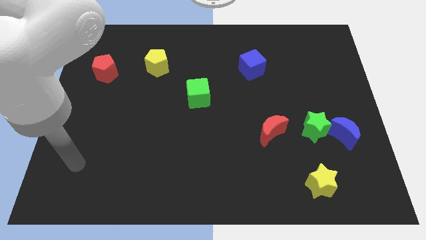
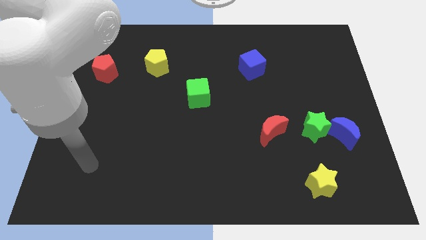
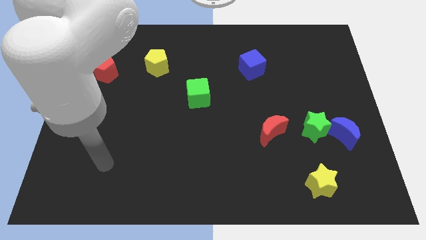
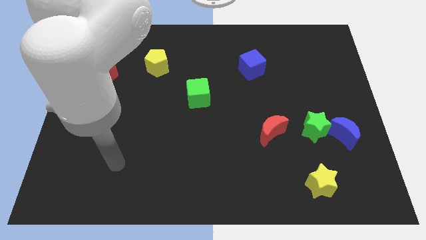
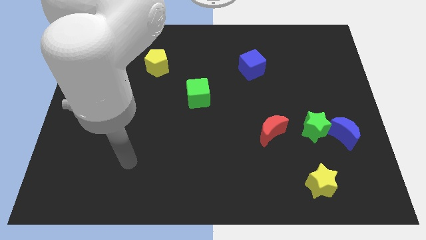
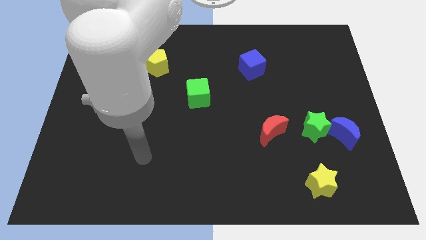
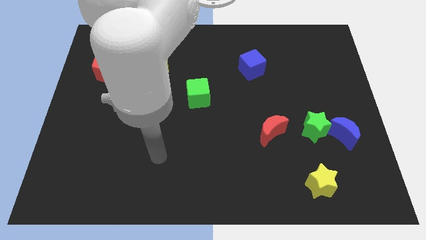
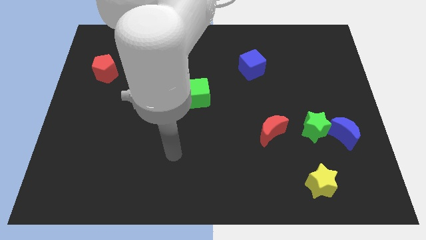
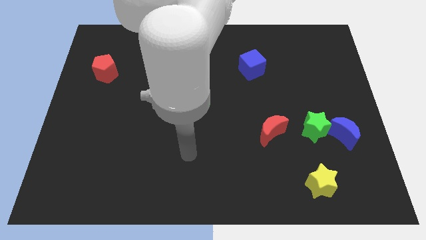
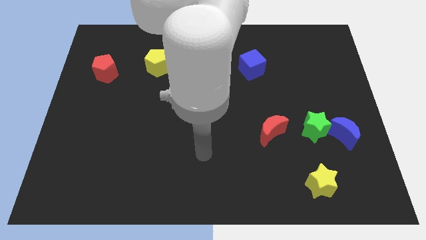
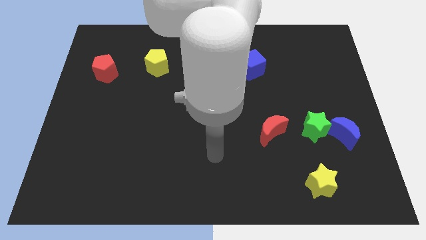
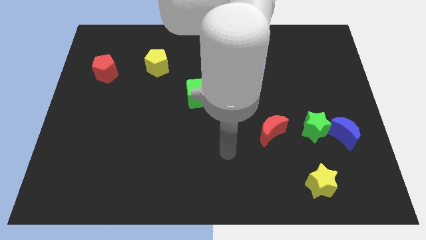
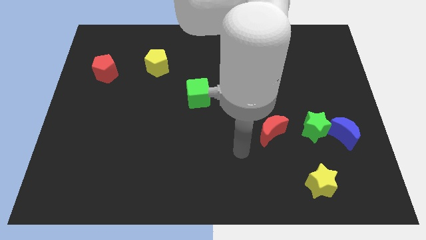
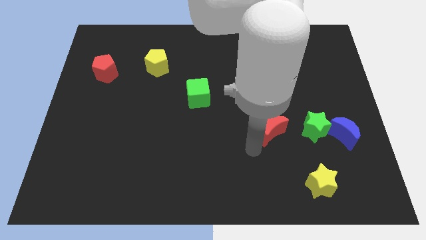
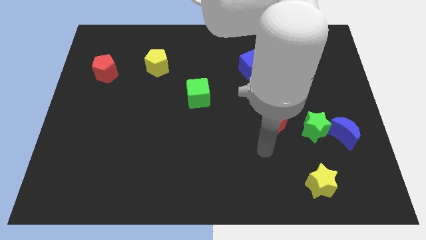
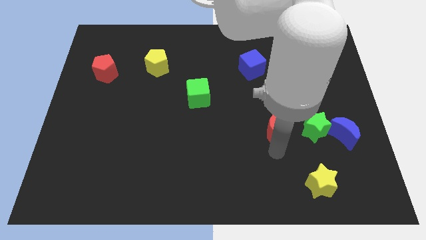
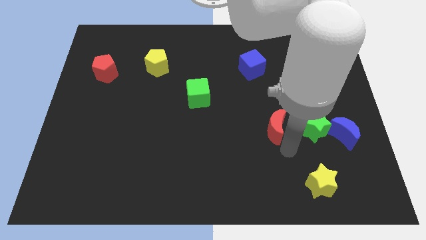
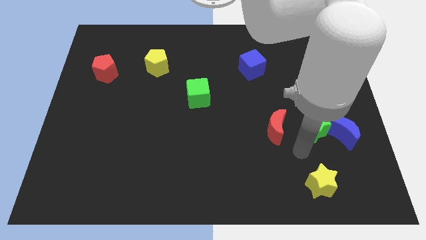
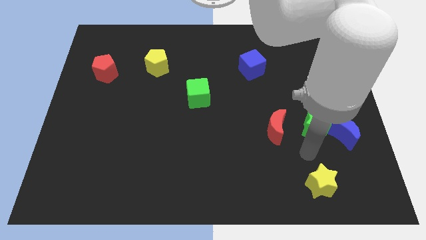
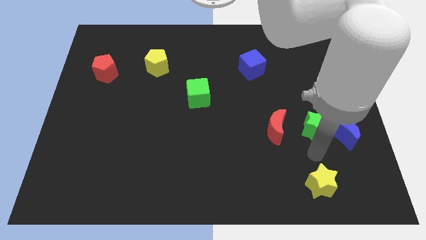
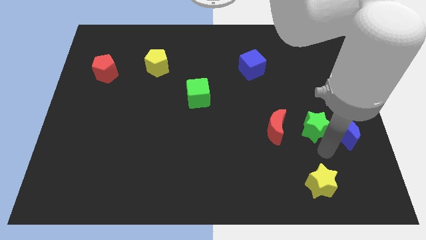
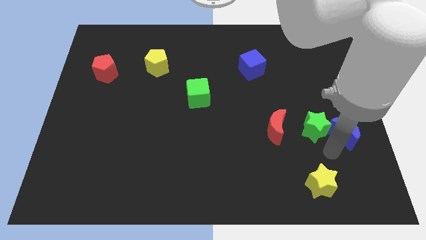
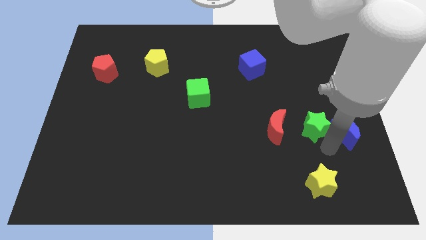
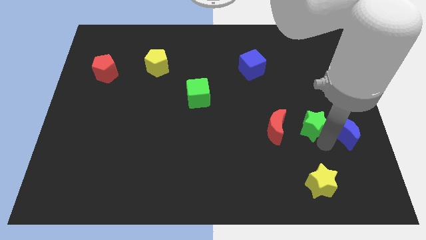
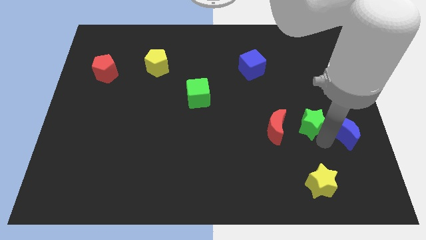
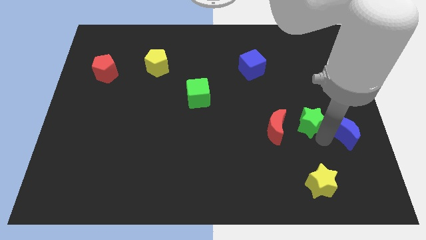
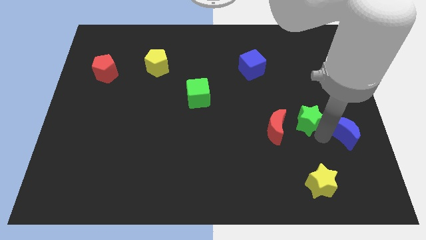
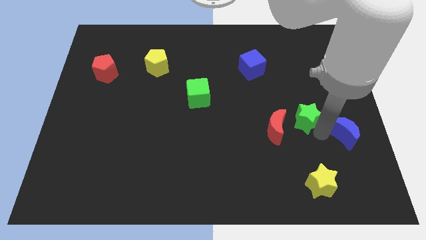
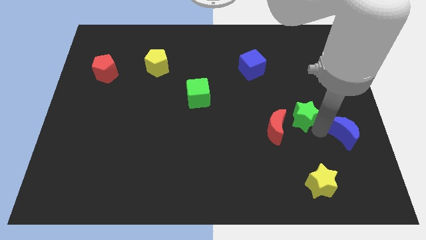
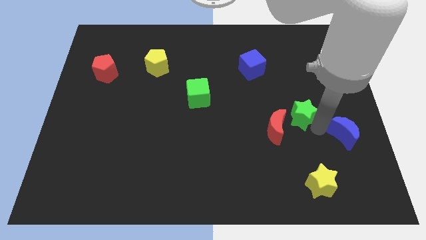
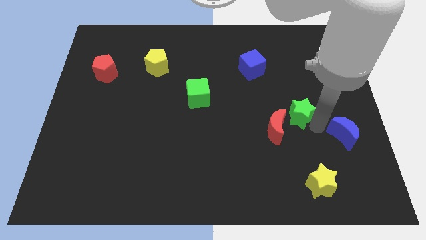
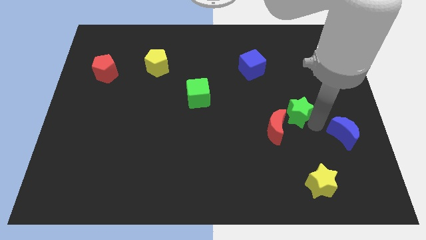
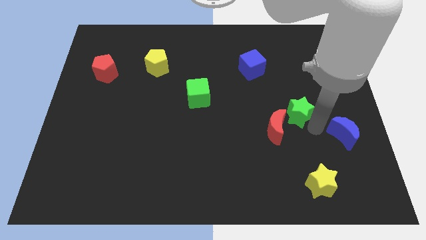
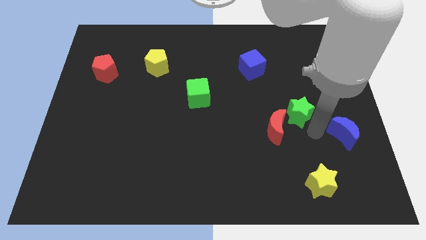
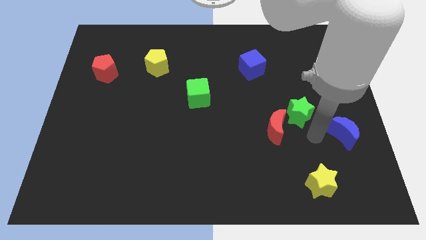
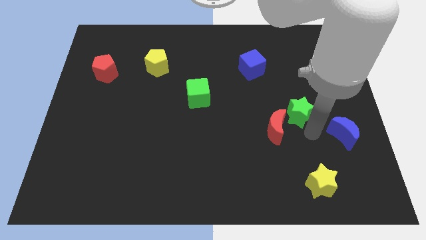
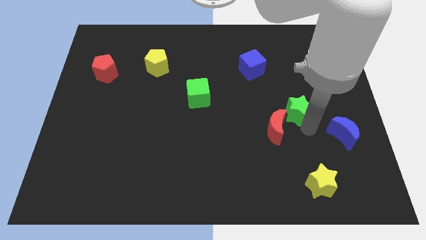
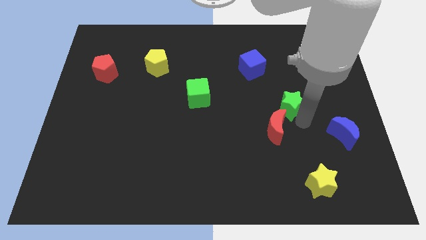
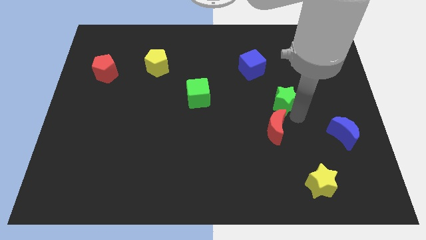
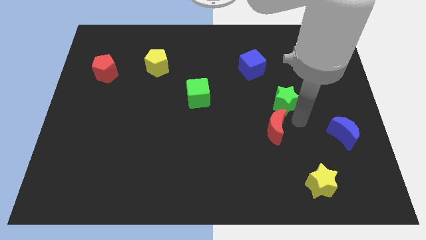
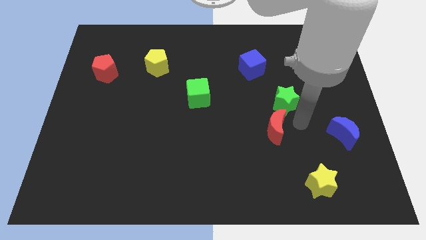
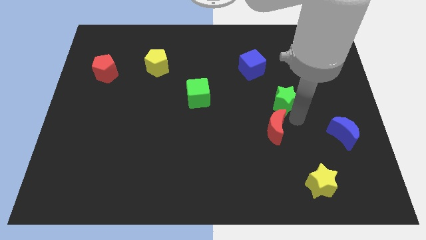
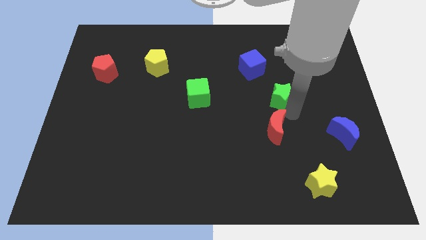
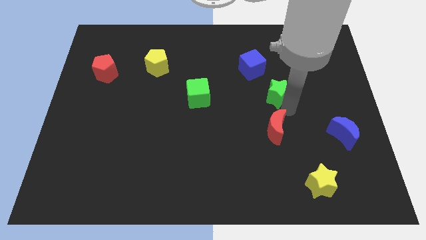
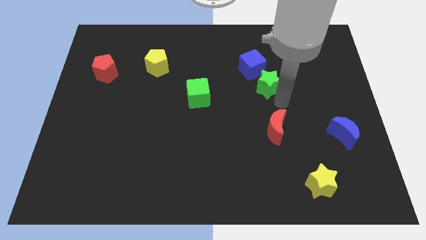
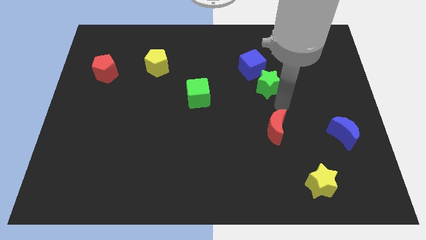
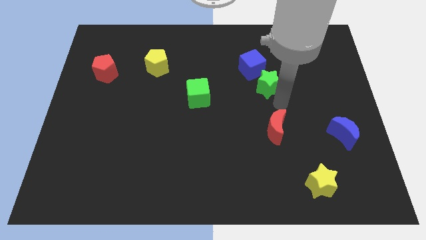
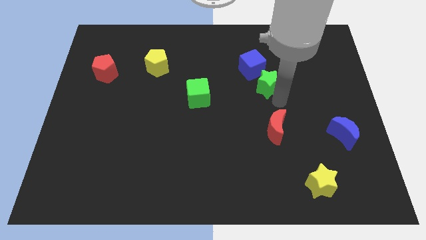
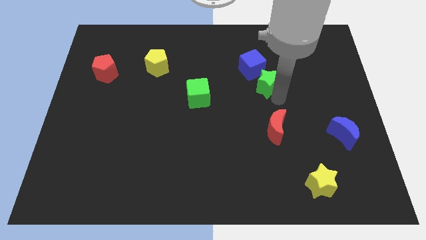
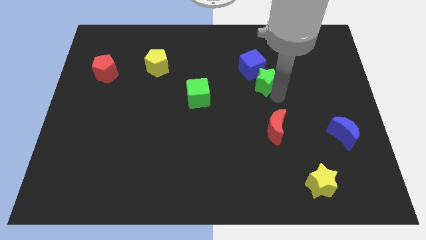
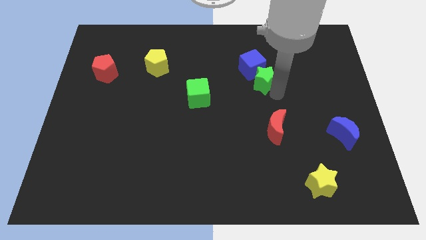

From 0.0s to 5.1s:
push the green star to the blue cube

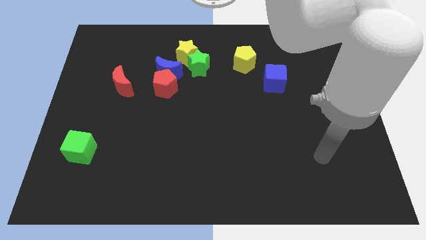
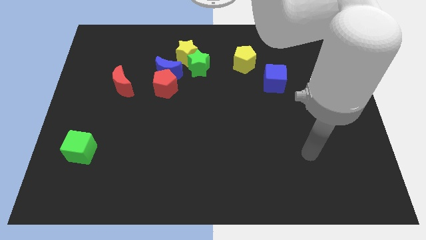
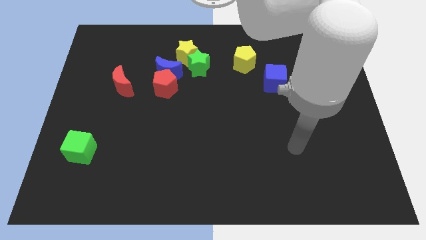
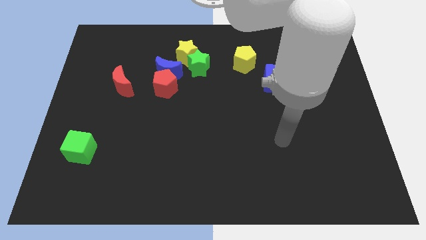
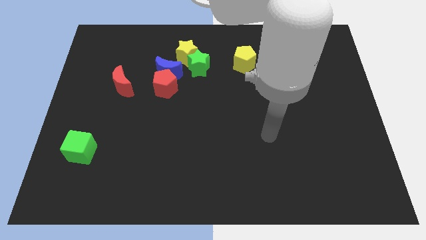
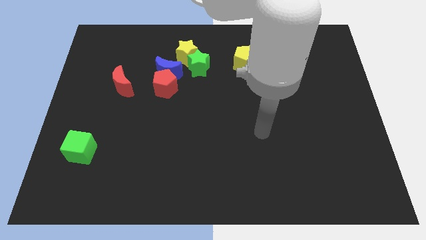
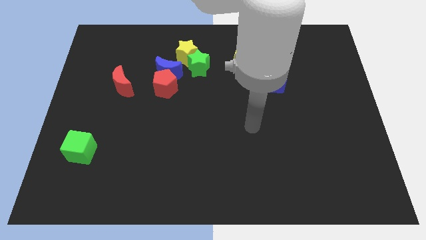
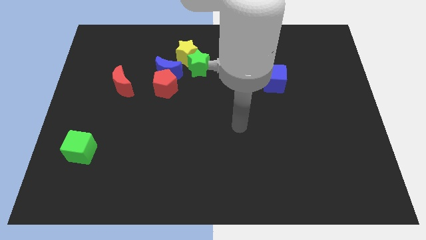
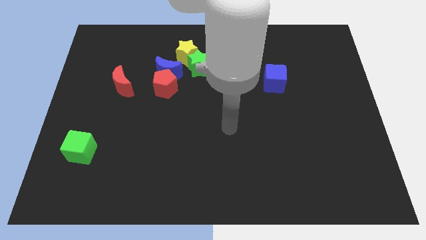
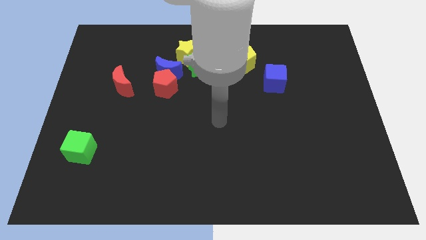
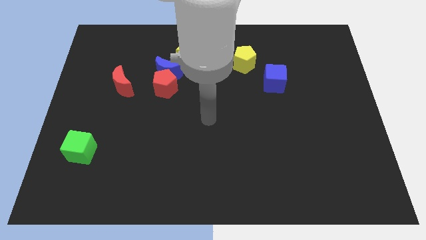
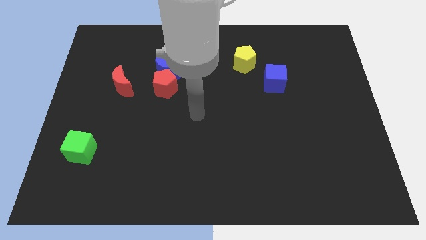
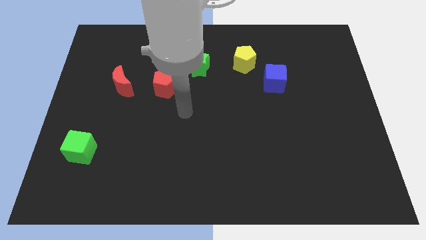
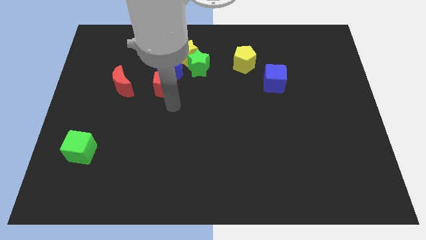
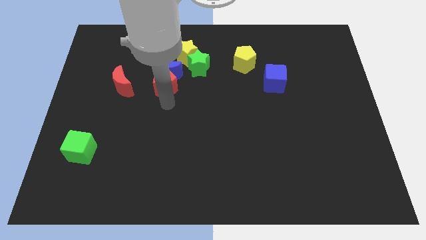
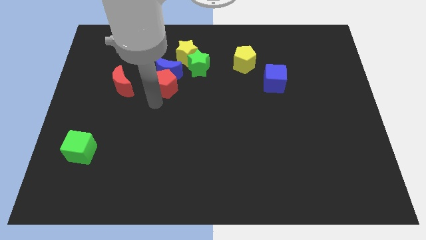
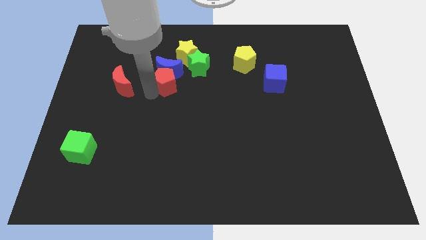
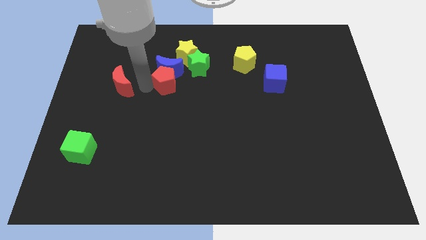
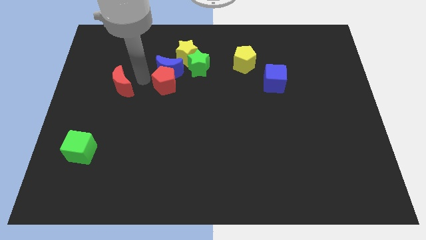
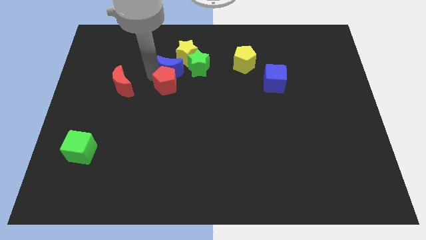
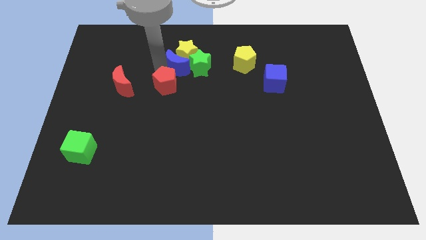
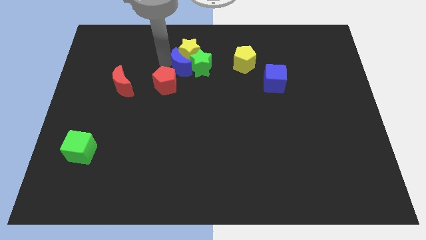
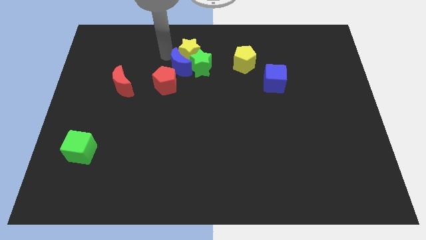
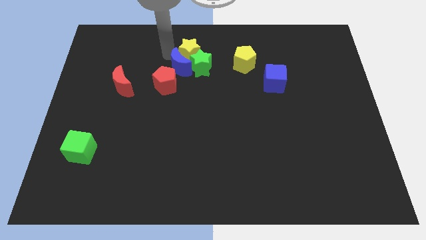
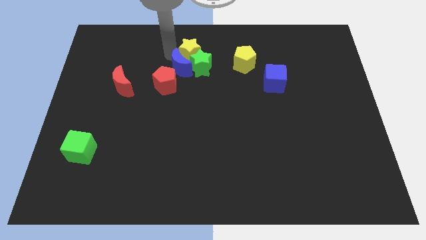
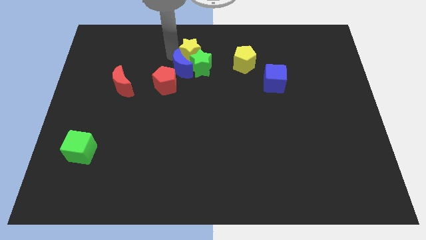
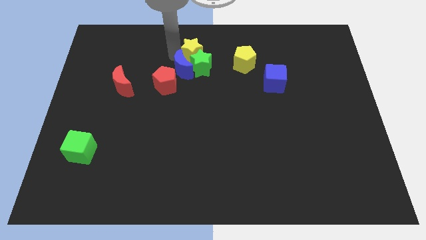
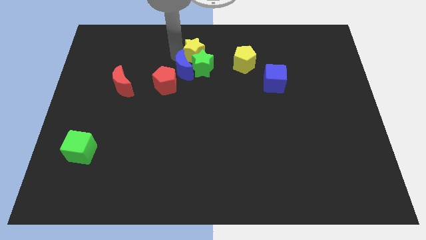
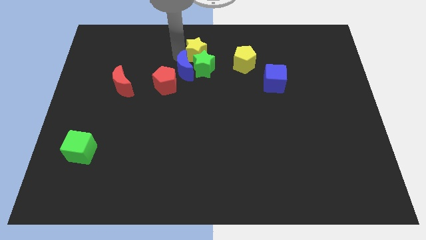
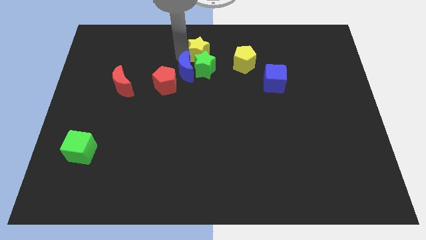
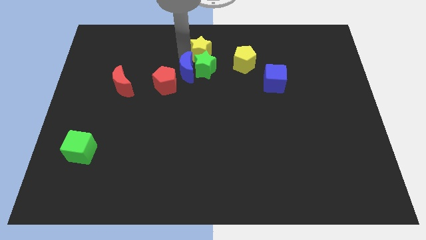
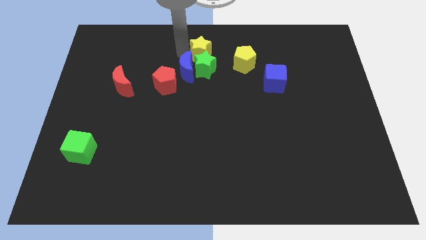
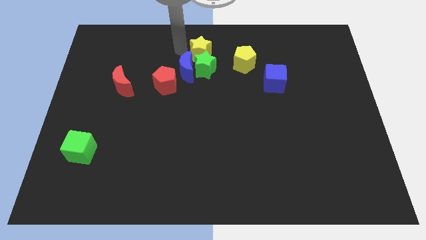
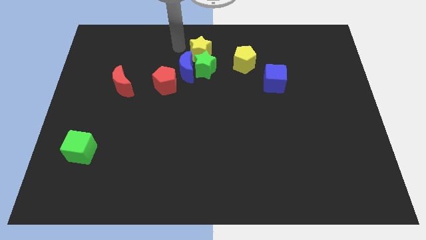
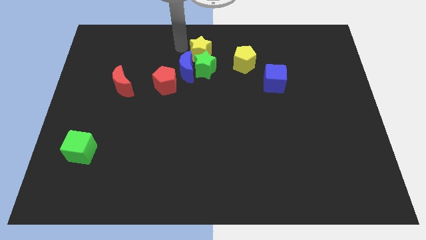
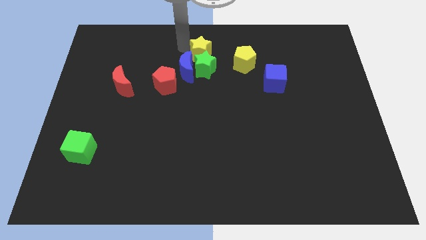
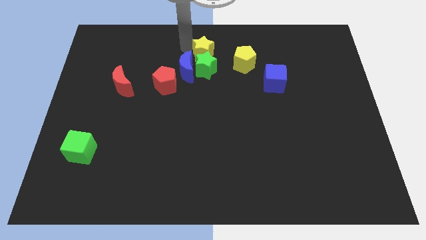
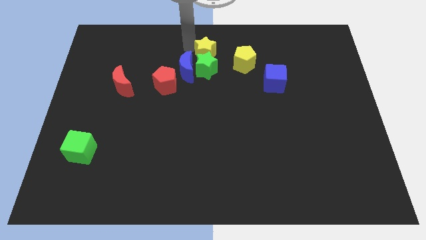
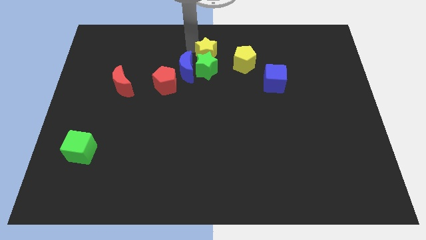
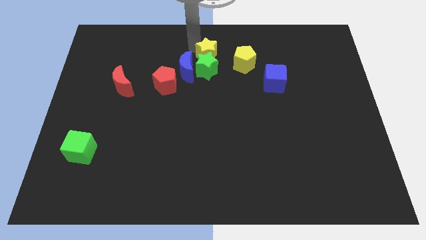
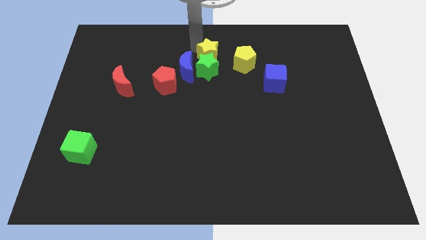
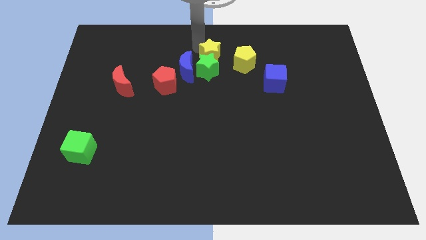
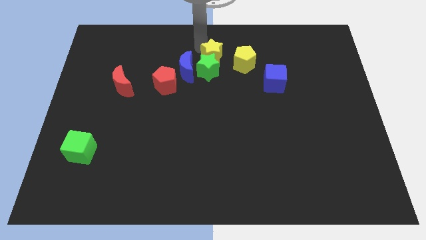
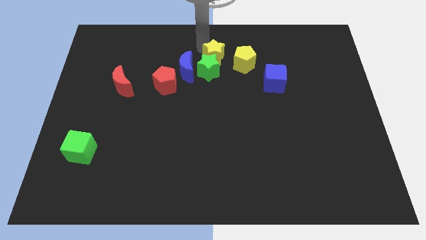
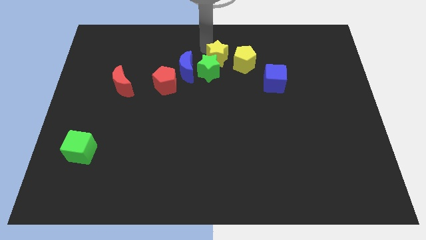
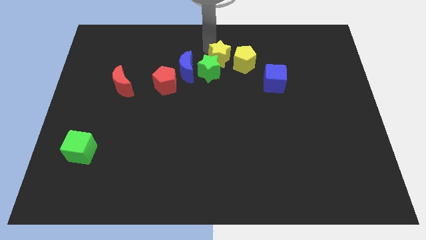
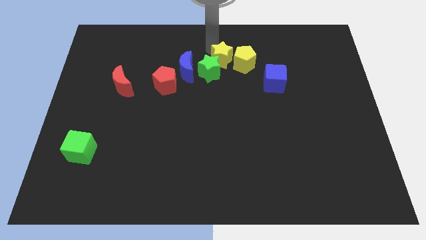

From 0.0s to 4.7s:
push the yellow star close to the yellow pentagon
